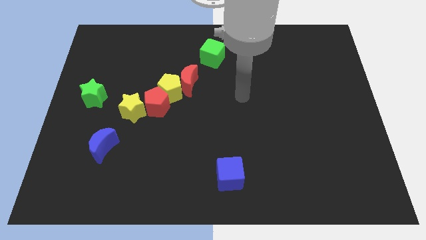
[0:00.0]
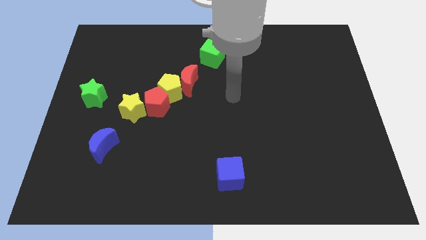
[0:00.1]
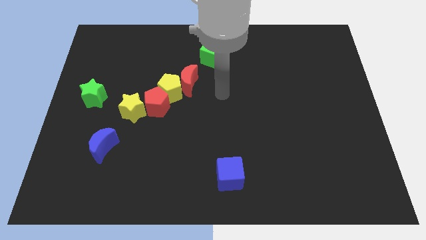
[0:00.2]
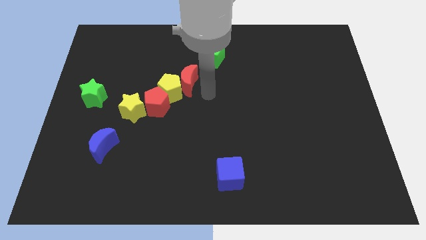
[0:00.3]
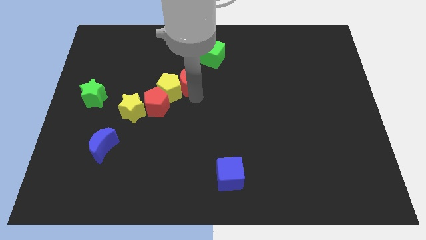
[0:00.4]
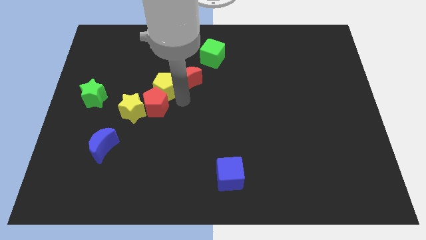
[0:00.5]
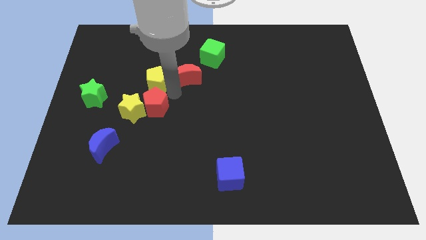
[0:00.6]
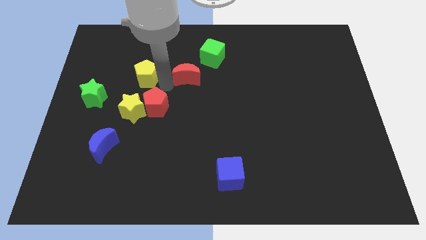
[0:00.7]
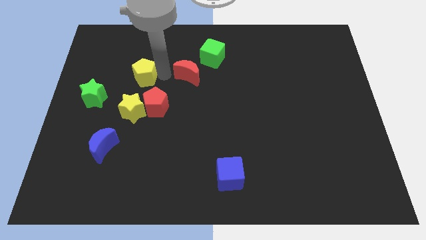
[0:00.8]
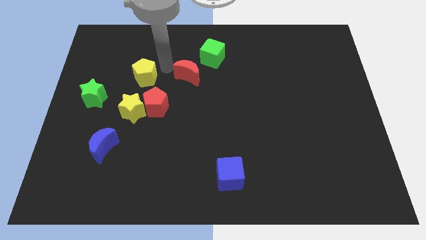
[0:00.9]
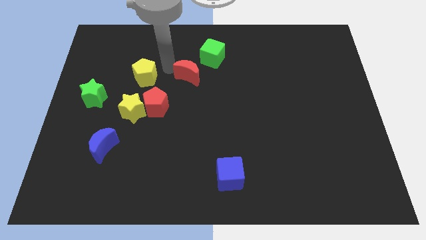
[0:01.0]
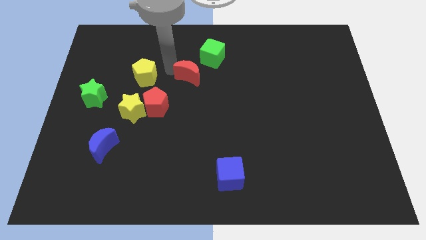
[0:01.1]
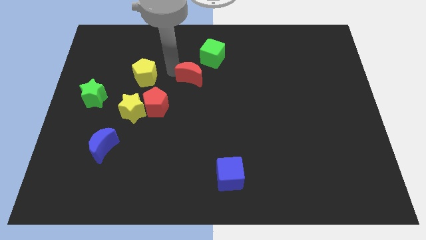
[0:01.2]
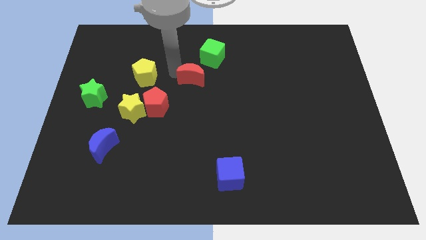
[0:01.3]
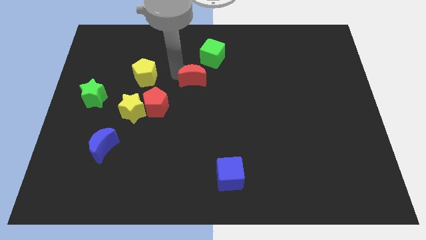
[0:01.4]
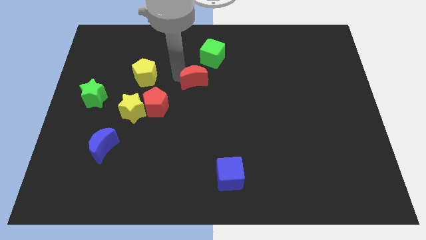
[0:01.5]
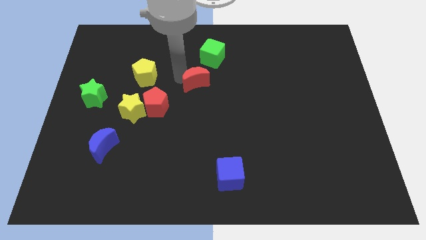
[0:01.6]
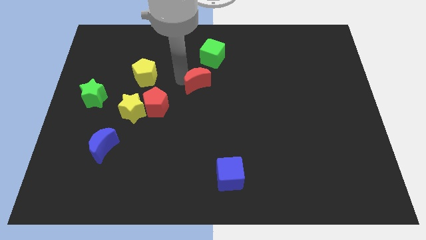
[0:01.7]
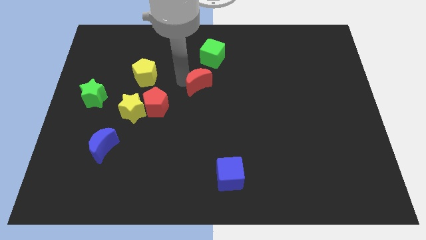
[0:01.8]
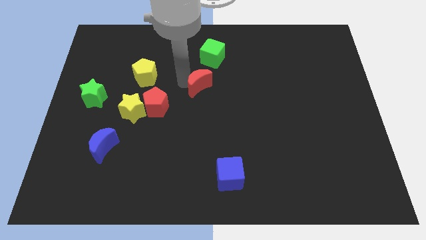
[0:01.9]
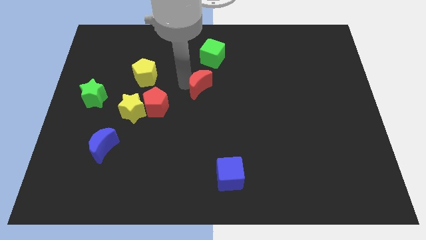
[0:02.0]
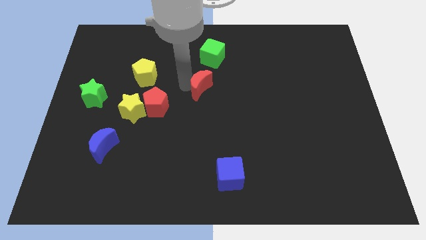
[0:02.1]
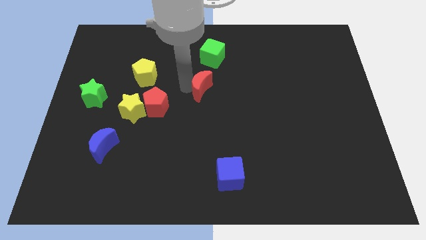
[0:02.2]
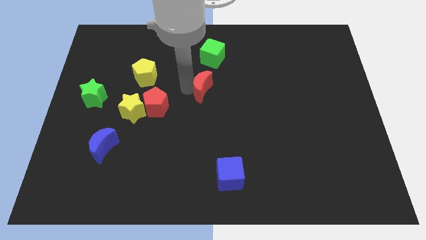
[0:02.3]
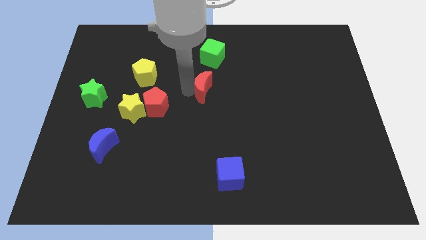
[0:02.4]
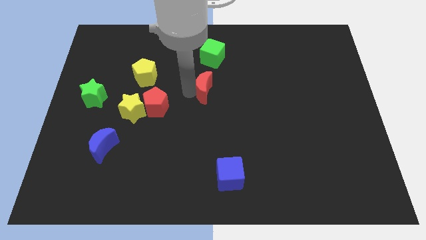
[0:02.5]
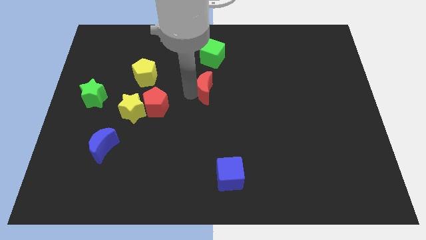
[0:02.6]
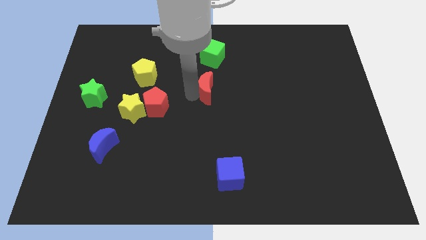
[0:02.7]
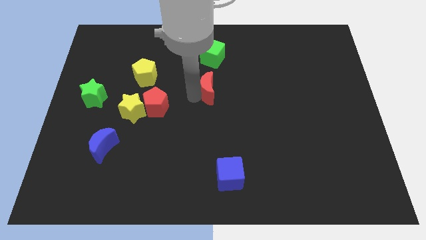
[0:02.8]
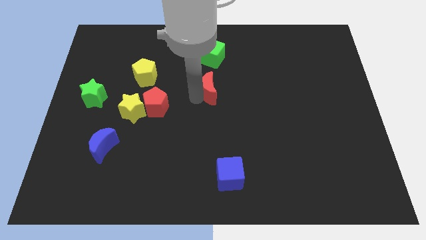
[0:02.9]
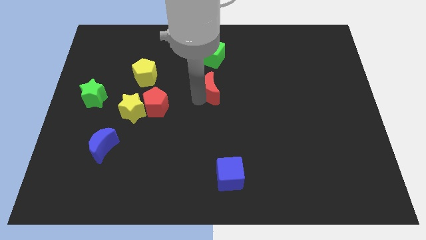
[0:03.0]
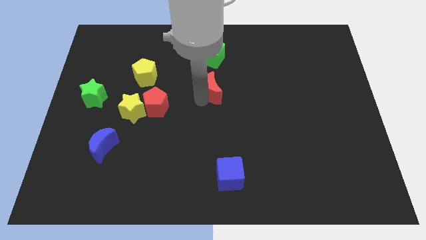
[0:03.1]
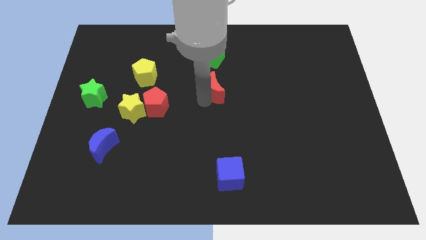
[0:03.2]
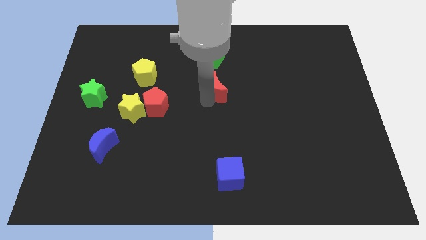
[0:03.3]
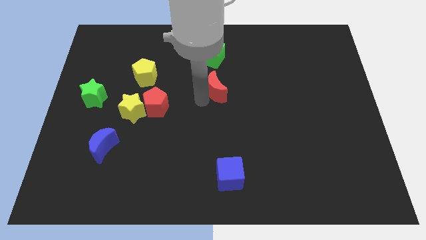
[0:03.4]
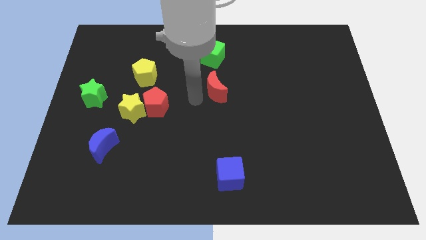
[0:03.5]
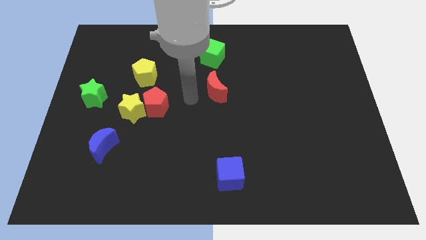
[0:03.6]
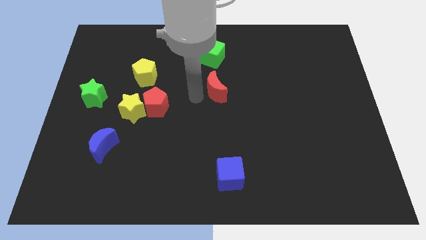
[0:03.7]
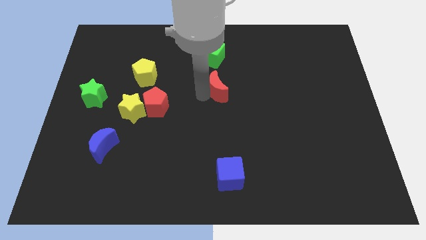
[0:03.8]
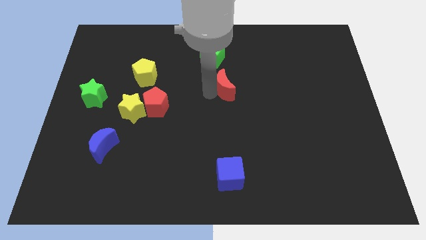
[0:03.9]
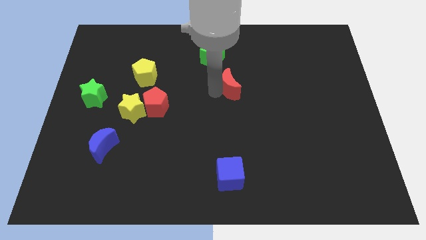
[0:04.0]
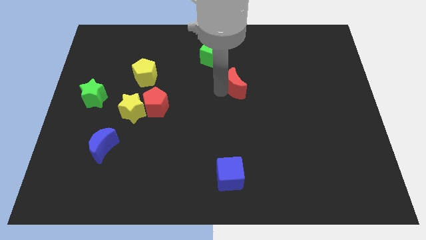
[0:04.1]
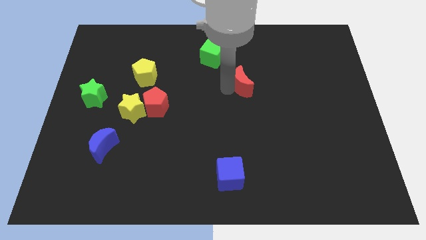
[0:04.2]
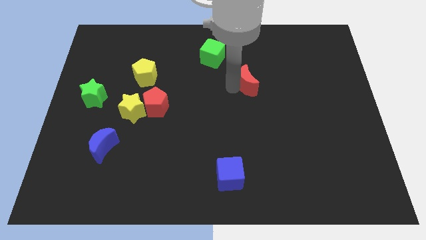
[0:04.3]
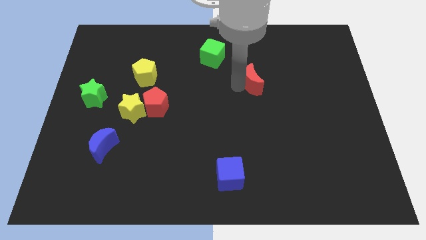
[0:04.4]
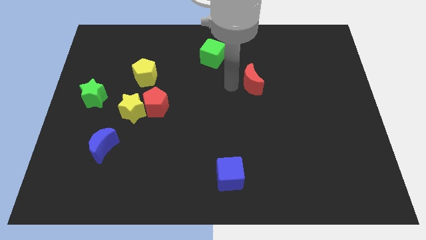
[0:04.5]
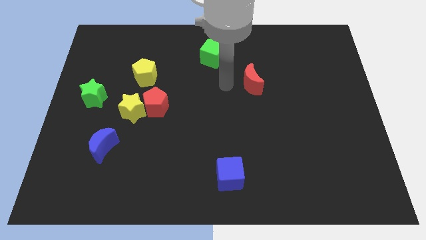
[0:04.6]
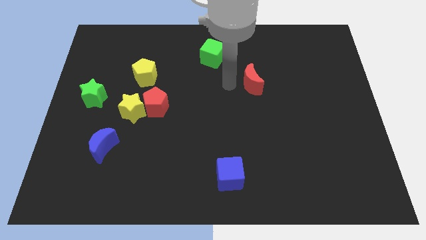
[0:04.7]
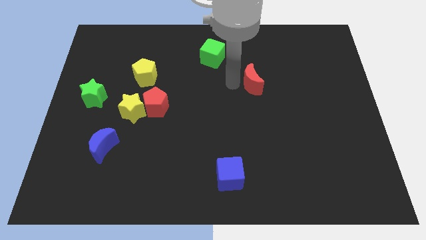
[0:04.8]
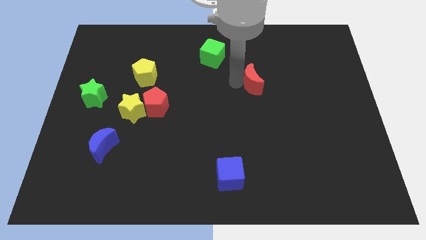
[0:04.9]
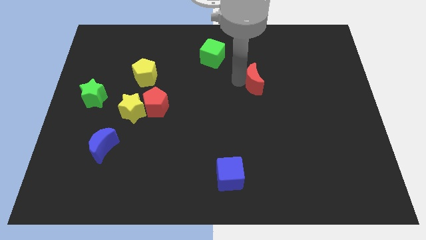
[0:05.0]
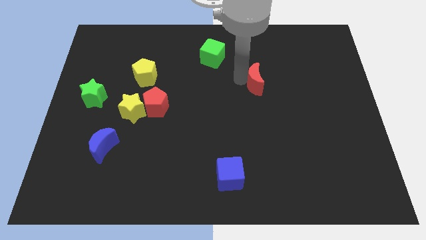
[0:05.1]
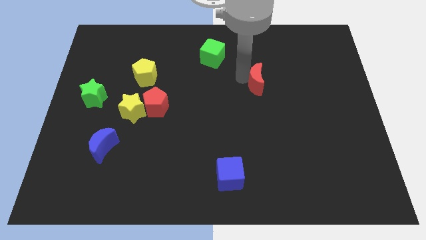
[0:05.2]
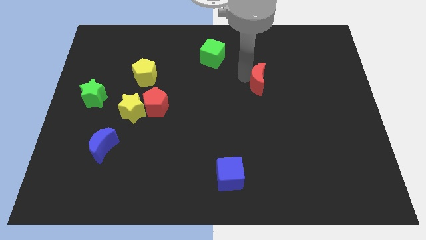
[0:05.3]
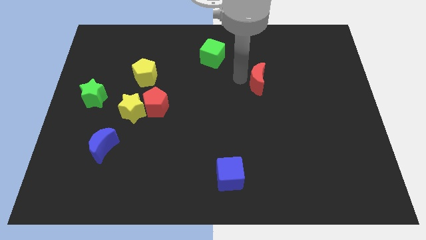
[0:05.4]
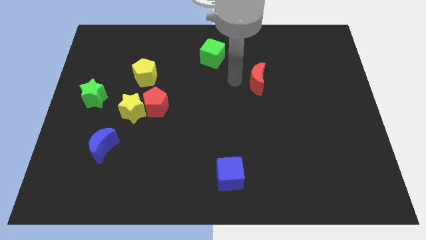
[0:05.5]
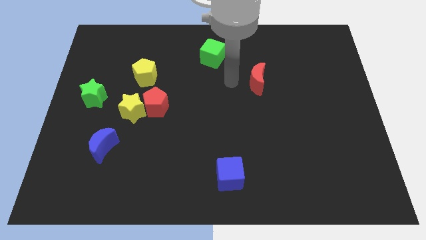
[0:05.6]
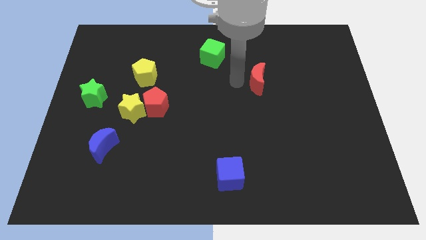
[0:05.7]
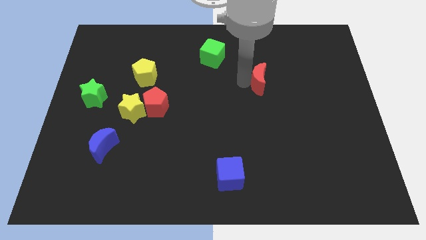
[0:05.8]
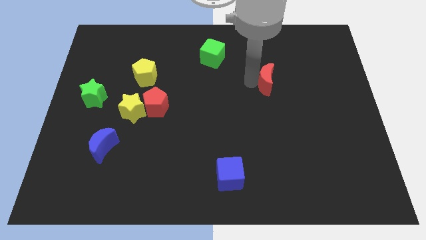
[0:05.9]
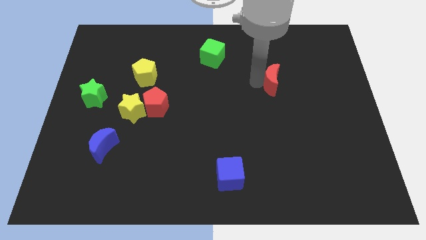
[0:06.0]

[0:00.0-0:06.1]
move the red moon to the right

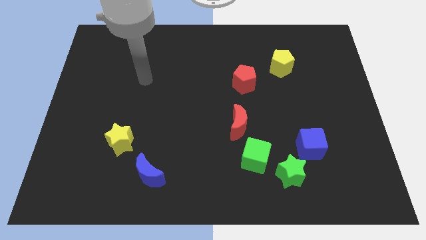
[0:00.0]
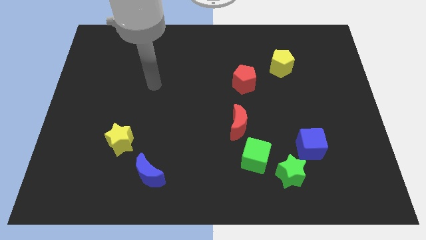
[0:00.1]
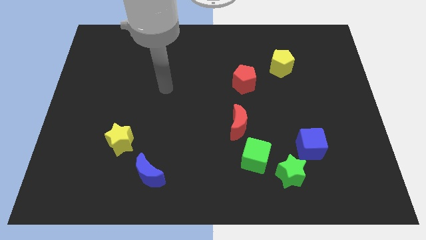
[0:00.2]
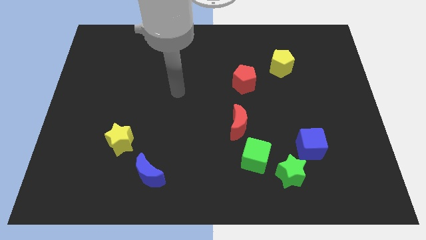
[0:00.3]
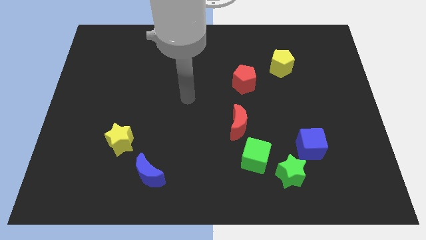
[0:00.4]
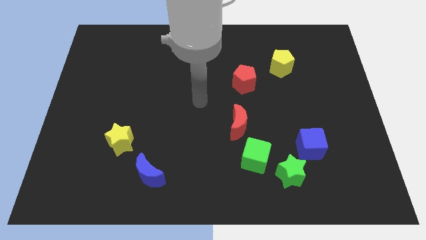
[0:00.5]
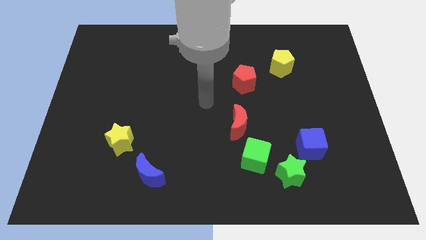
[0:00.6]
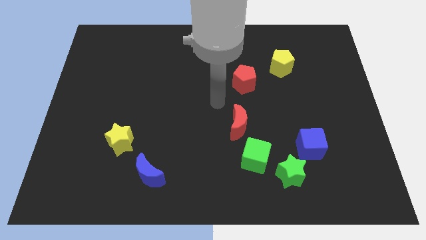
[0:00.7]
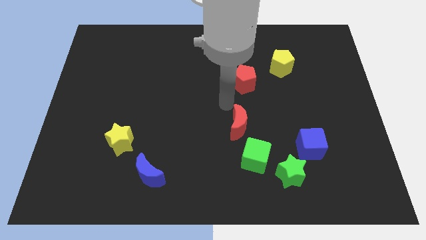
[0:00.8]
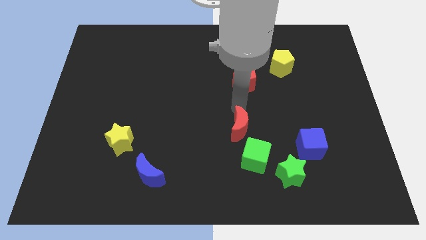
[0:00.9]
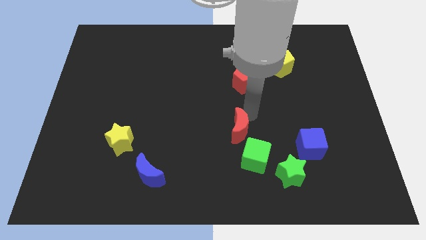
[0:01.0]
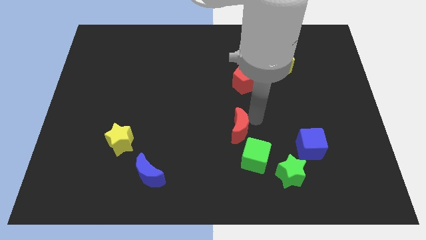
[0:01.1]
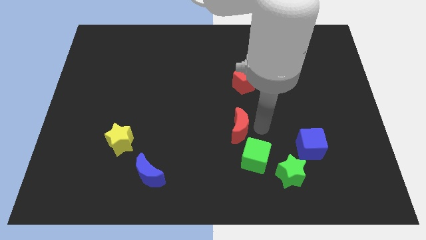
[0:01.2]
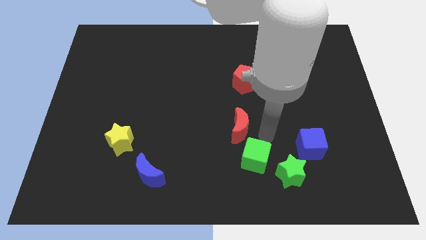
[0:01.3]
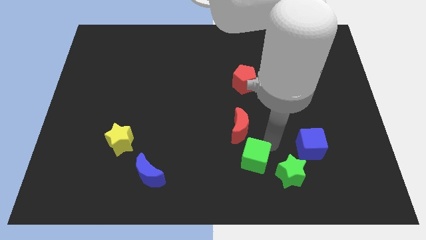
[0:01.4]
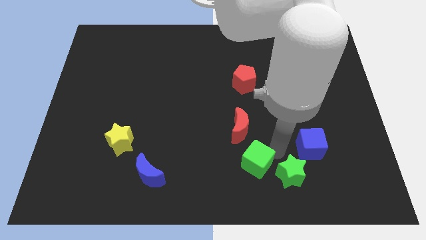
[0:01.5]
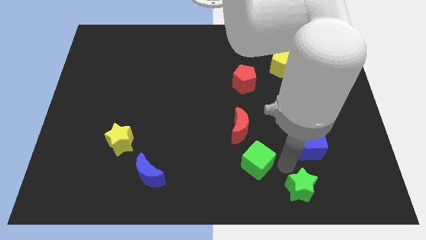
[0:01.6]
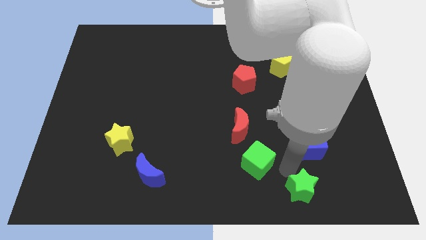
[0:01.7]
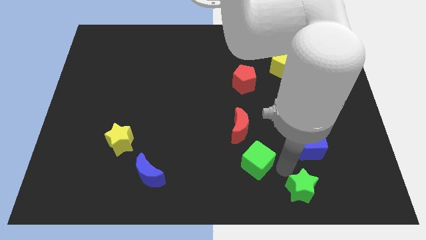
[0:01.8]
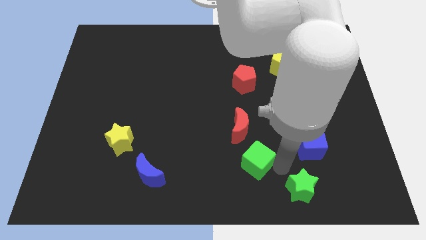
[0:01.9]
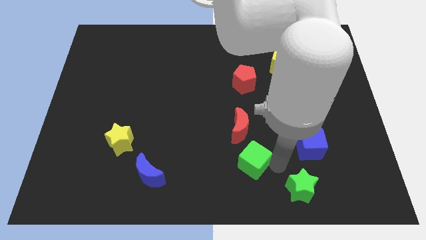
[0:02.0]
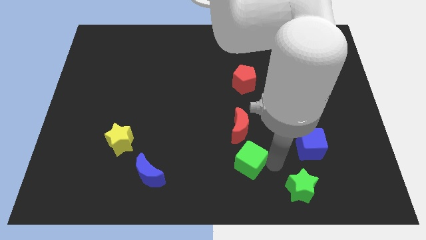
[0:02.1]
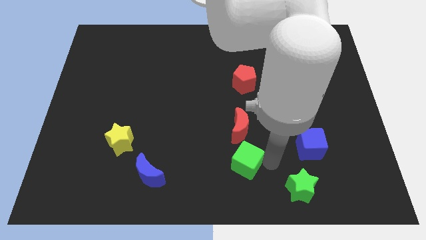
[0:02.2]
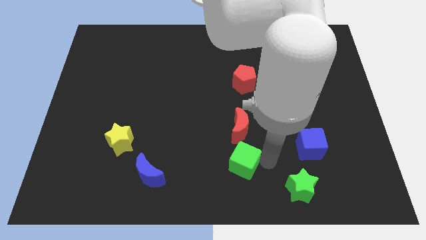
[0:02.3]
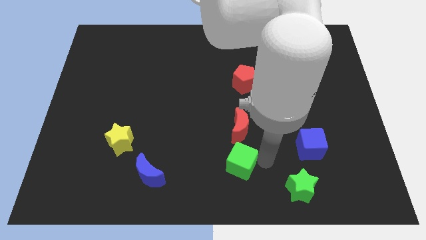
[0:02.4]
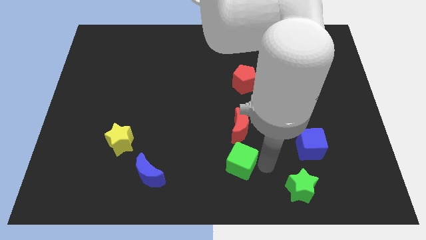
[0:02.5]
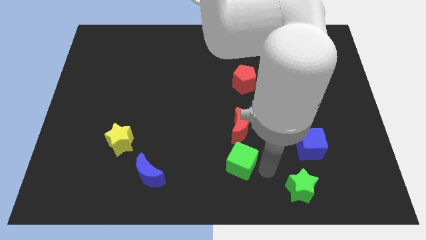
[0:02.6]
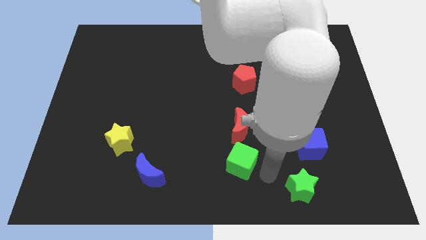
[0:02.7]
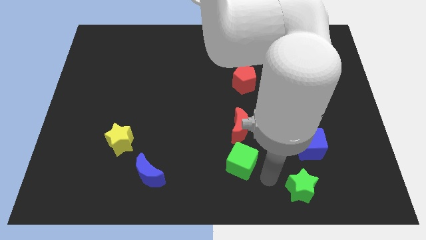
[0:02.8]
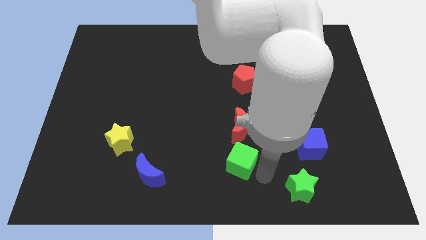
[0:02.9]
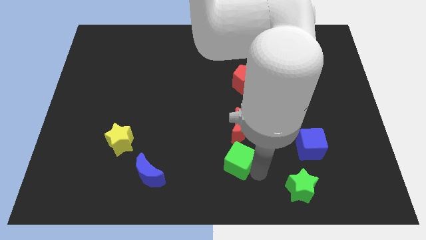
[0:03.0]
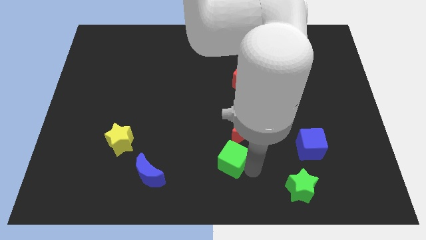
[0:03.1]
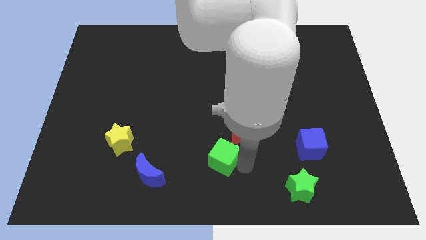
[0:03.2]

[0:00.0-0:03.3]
move the green cube a bit to the left
